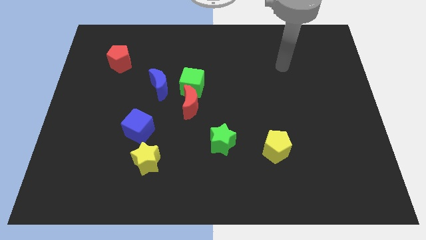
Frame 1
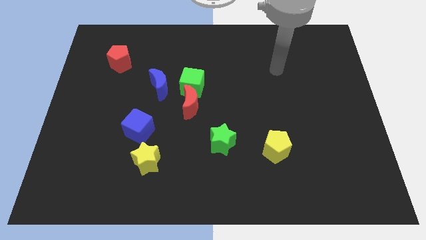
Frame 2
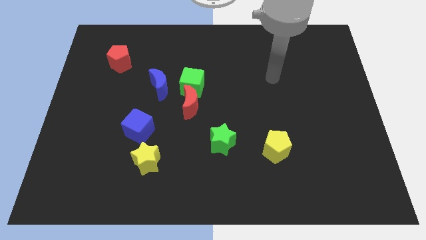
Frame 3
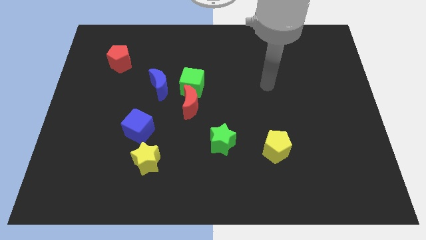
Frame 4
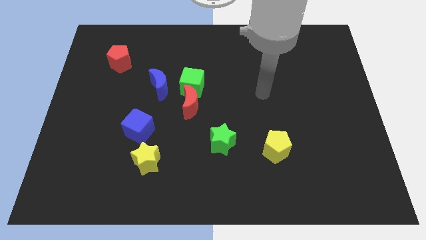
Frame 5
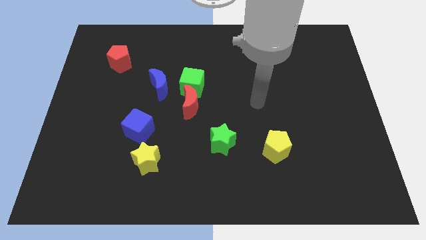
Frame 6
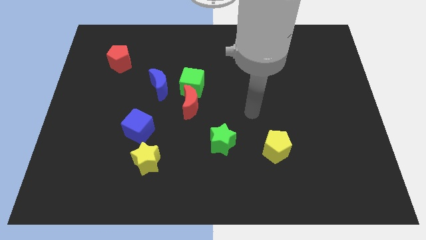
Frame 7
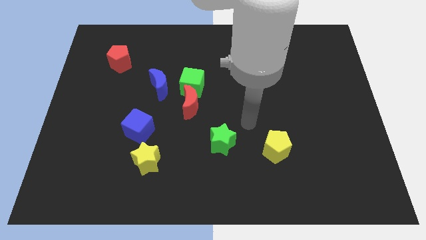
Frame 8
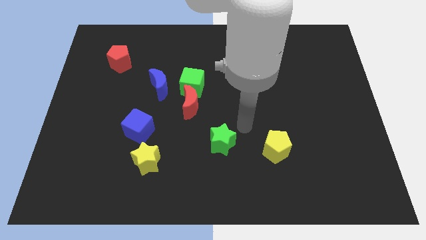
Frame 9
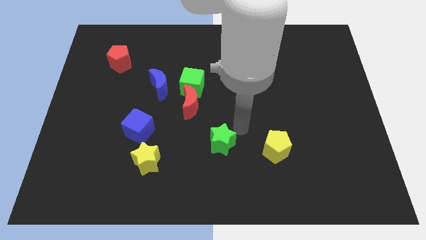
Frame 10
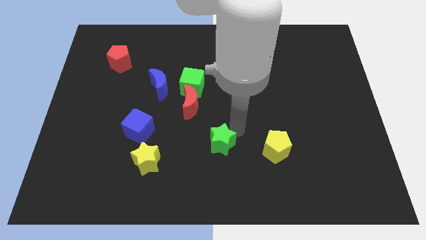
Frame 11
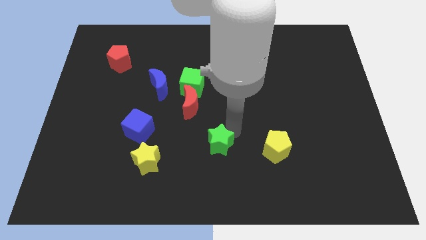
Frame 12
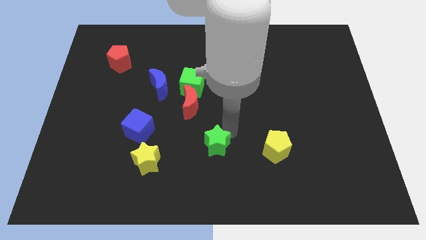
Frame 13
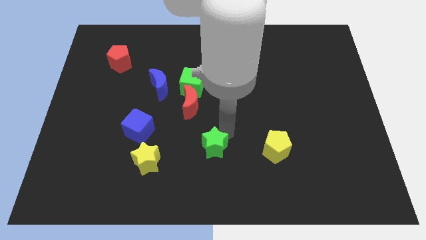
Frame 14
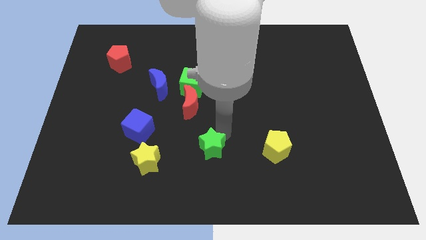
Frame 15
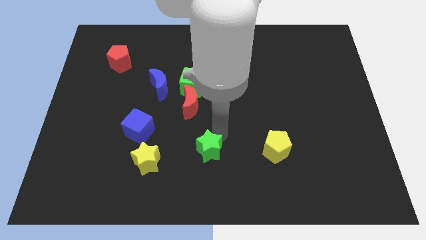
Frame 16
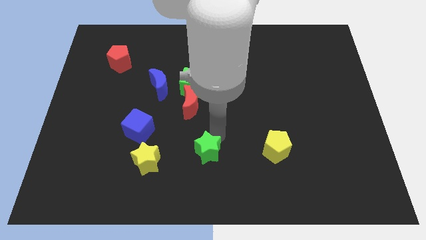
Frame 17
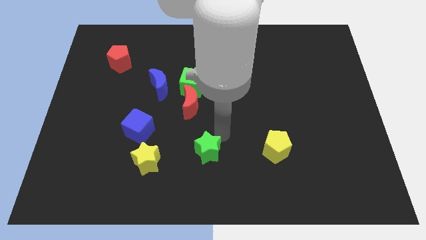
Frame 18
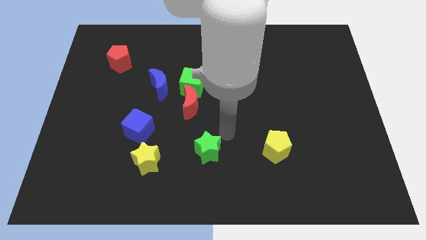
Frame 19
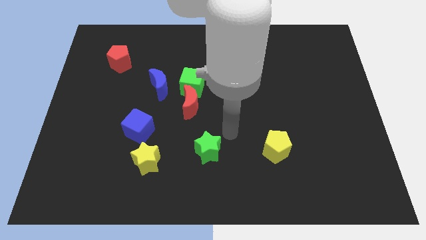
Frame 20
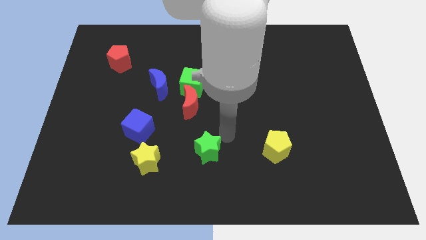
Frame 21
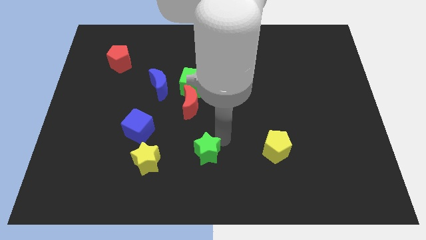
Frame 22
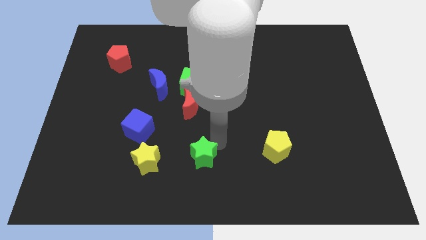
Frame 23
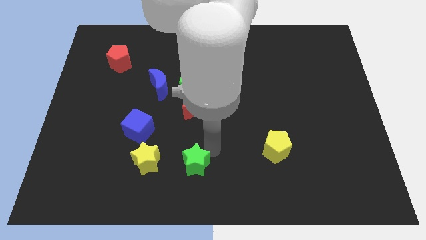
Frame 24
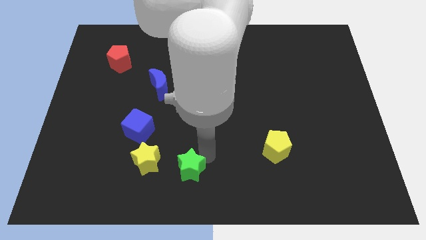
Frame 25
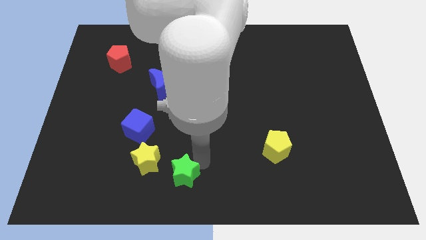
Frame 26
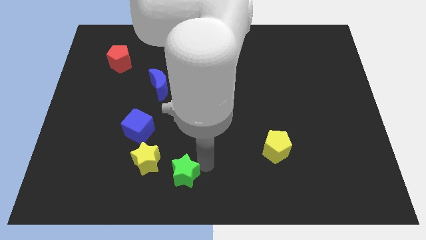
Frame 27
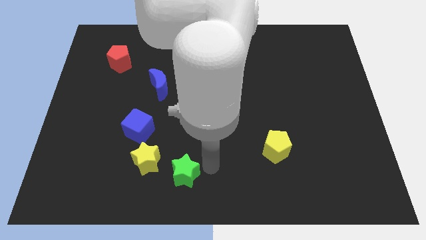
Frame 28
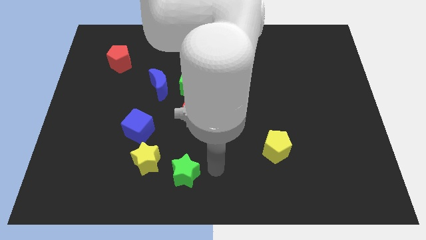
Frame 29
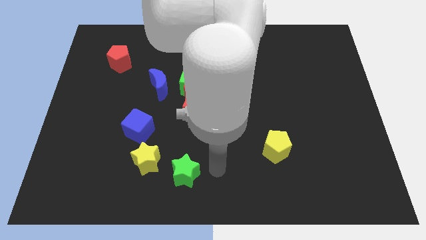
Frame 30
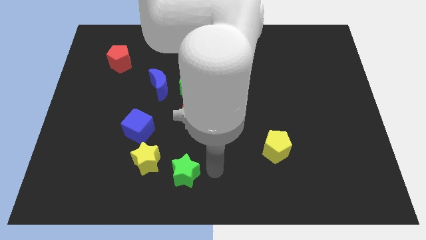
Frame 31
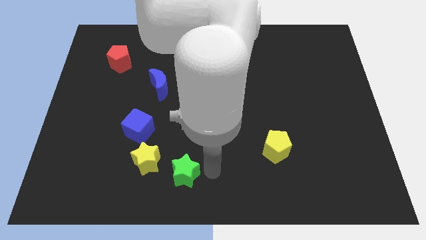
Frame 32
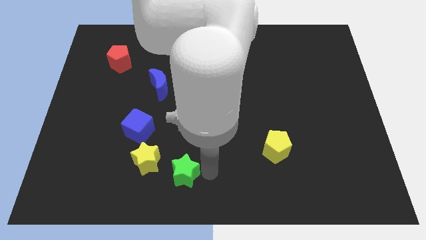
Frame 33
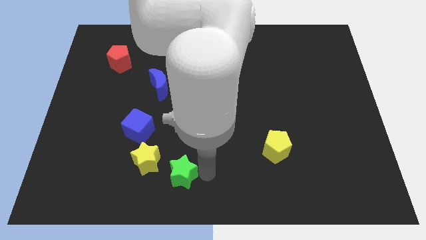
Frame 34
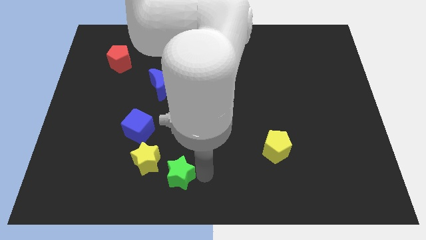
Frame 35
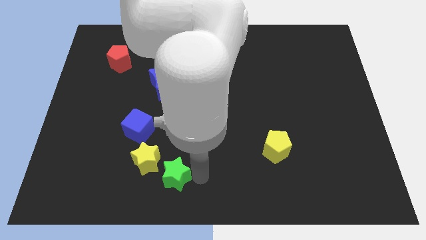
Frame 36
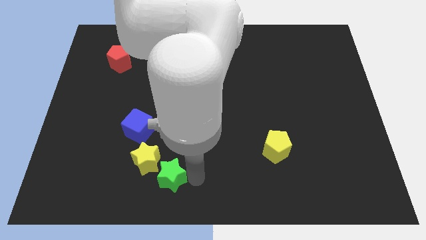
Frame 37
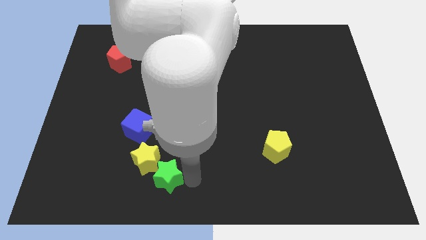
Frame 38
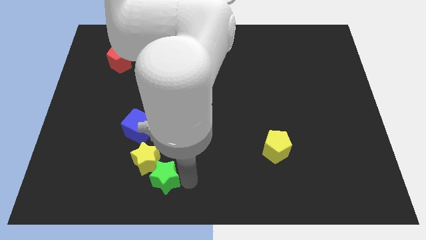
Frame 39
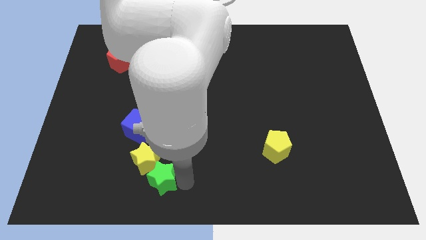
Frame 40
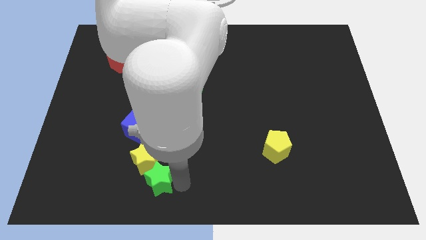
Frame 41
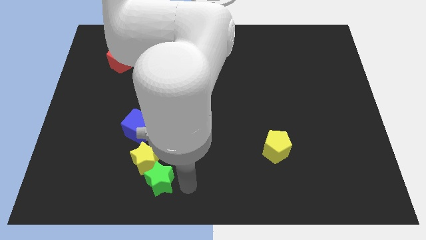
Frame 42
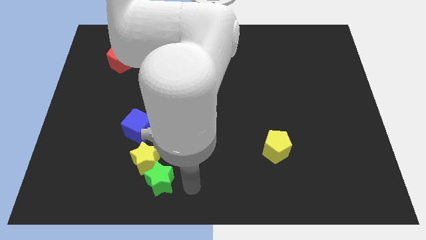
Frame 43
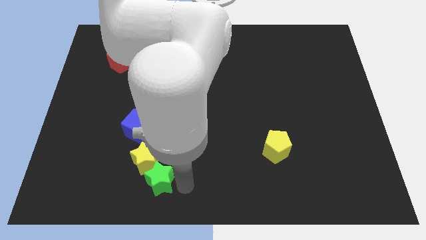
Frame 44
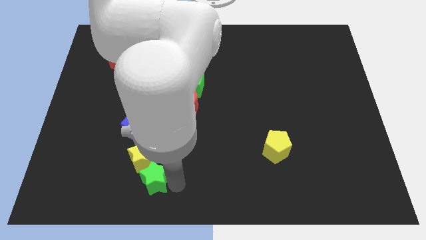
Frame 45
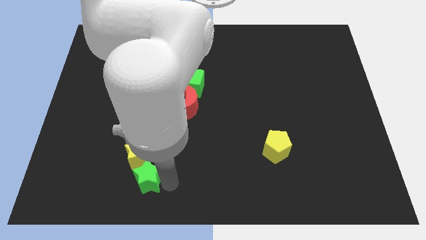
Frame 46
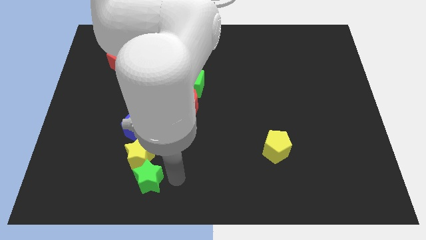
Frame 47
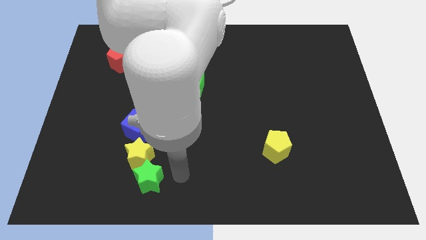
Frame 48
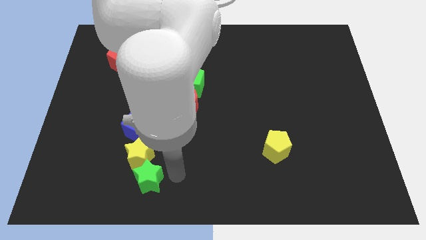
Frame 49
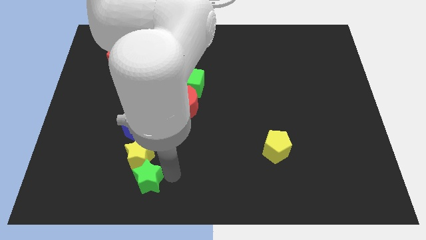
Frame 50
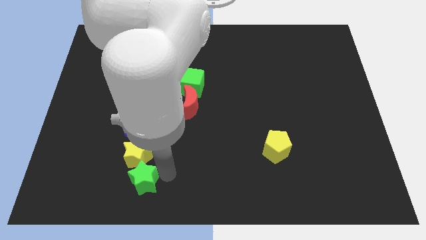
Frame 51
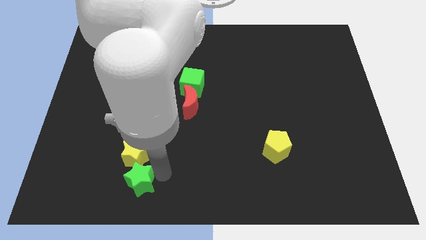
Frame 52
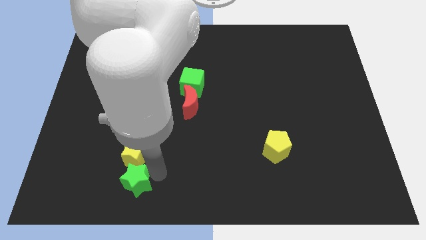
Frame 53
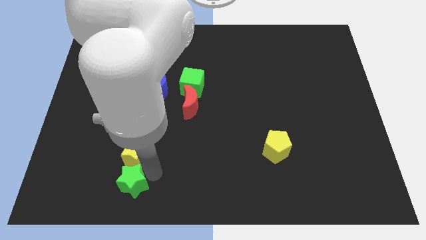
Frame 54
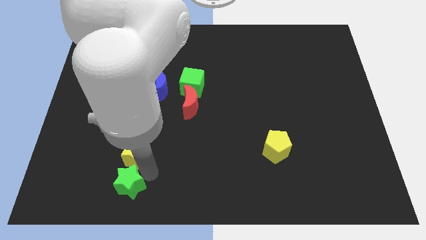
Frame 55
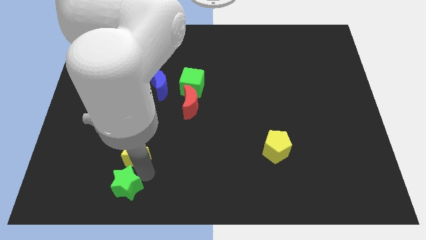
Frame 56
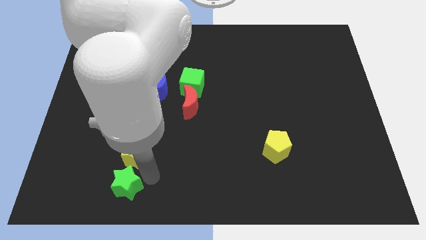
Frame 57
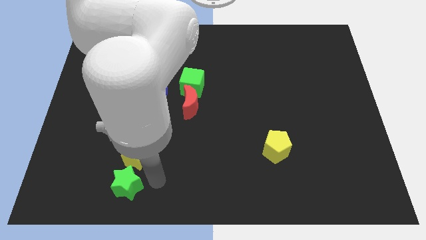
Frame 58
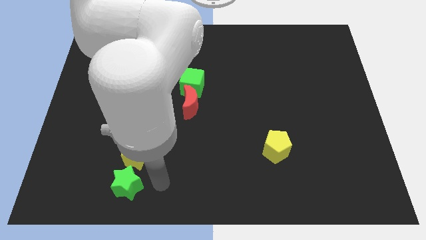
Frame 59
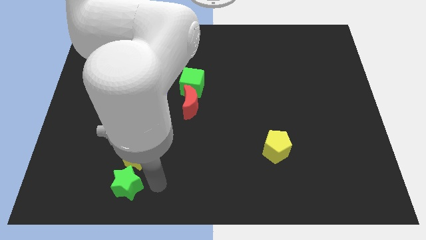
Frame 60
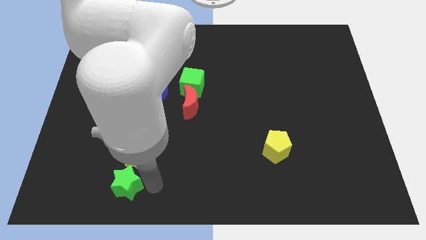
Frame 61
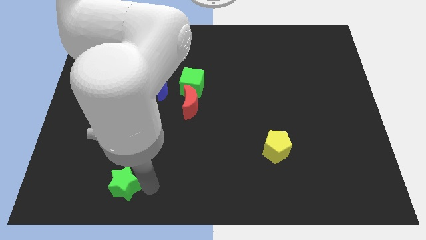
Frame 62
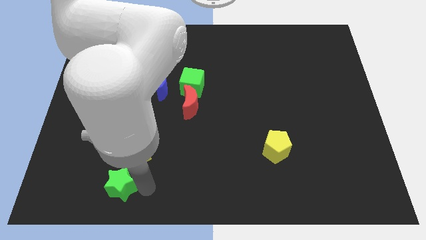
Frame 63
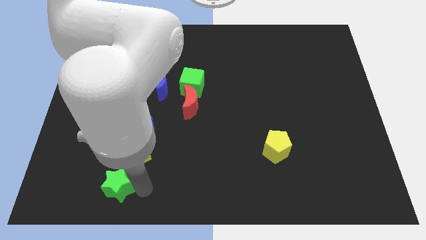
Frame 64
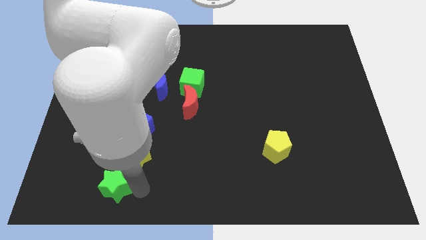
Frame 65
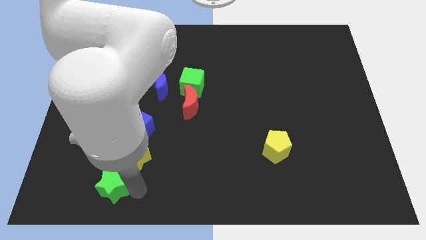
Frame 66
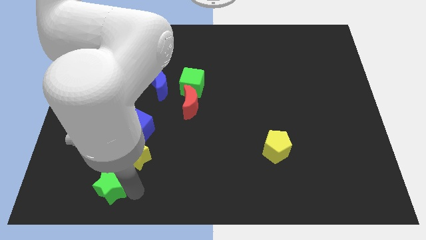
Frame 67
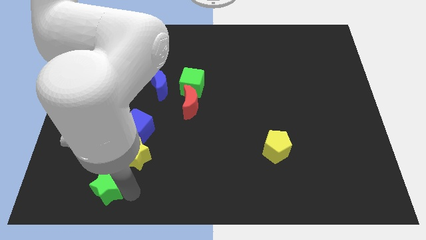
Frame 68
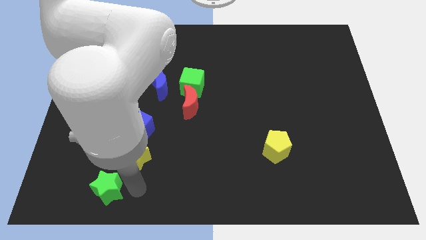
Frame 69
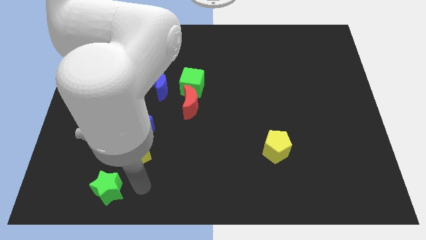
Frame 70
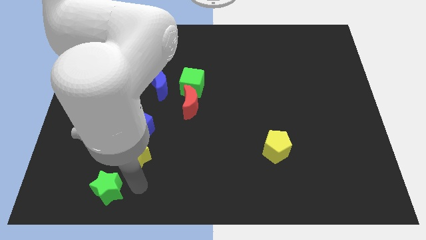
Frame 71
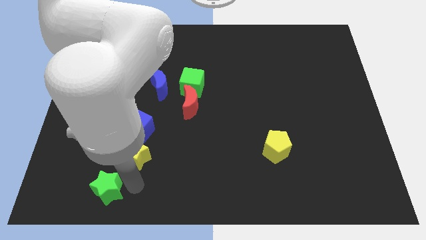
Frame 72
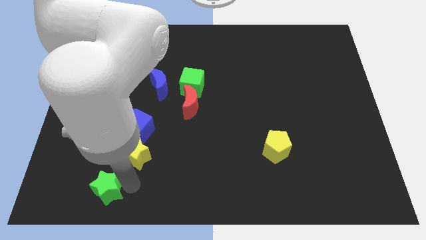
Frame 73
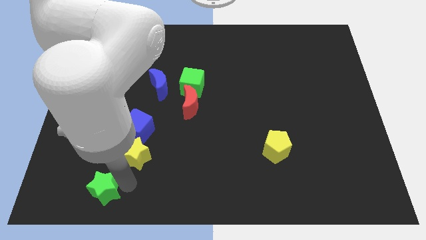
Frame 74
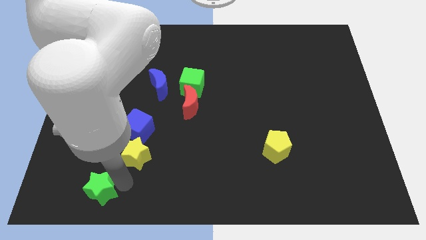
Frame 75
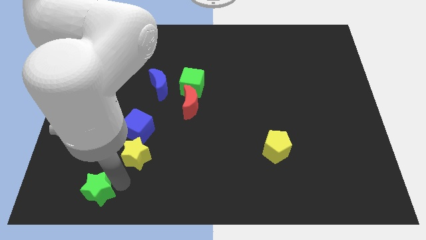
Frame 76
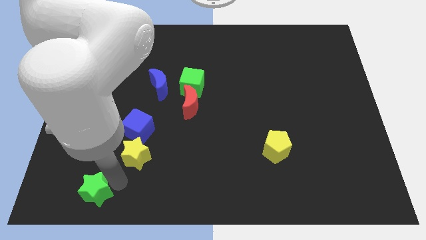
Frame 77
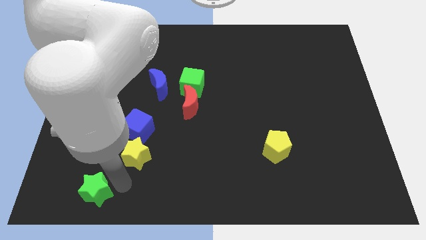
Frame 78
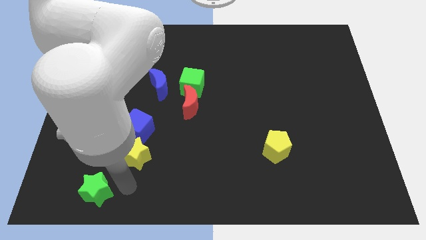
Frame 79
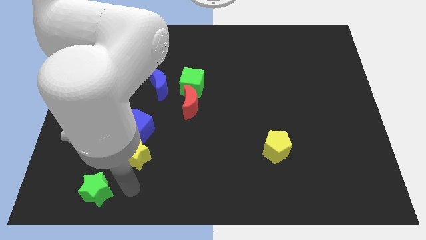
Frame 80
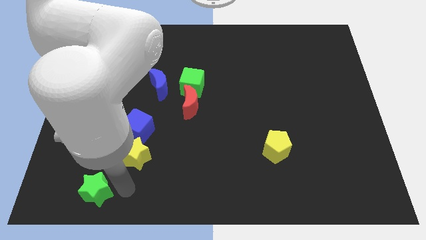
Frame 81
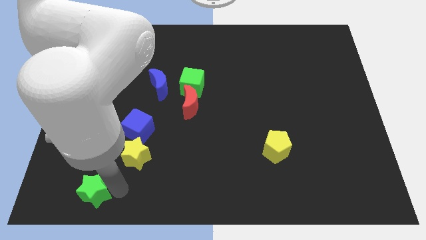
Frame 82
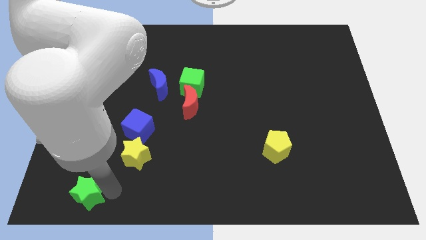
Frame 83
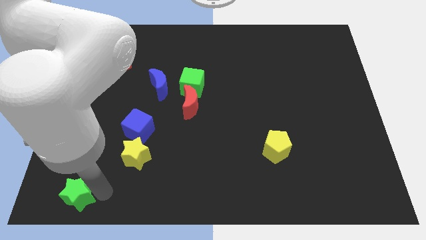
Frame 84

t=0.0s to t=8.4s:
push the green star to the bottom left of the board
